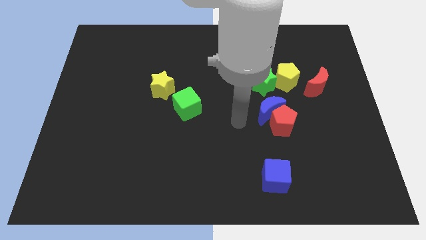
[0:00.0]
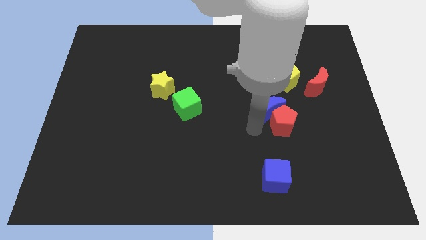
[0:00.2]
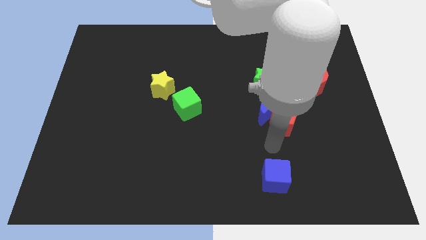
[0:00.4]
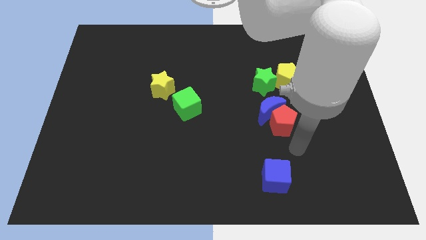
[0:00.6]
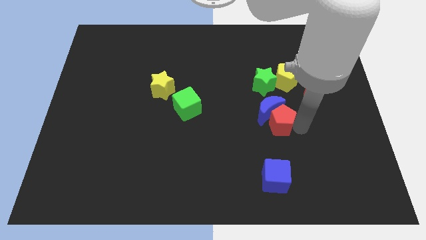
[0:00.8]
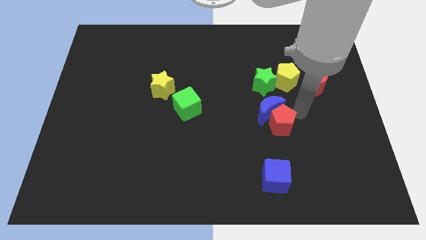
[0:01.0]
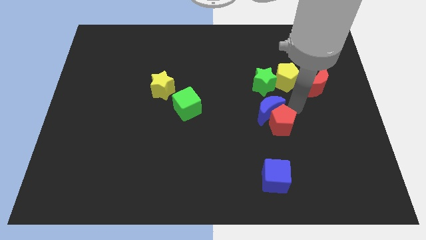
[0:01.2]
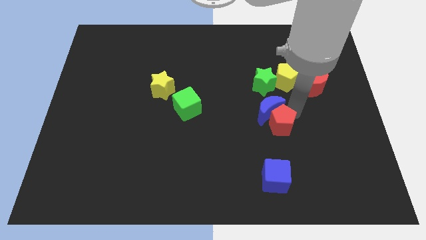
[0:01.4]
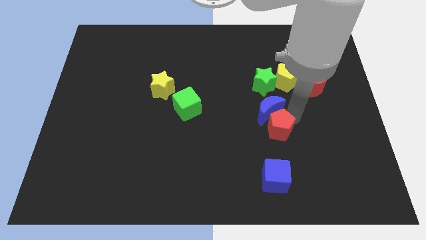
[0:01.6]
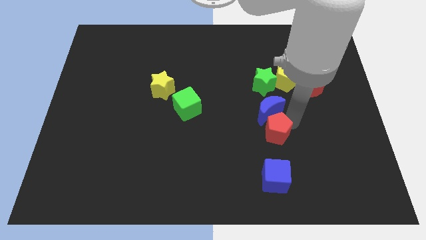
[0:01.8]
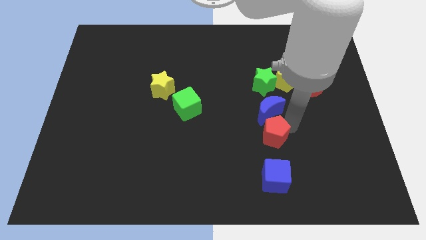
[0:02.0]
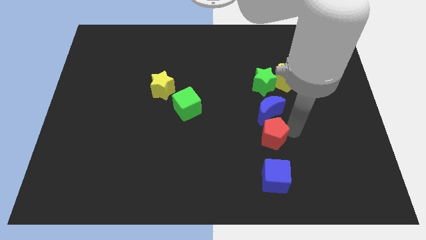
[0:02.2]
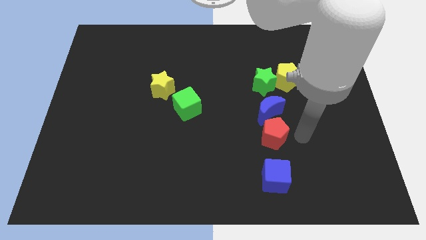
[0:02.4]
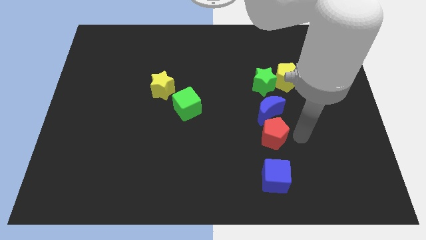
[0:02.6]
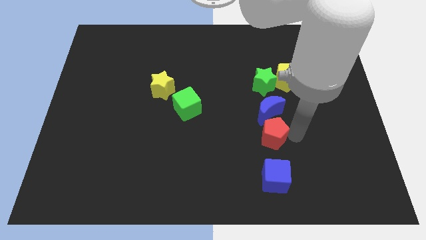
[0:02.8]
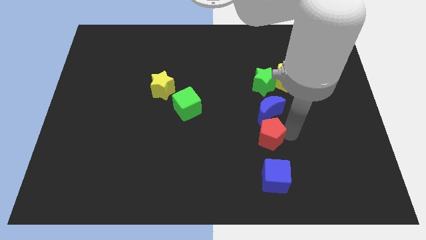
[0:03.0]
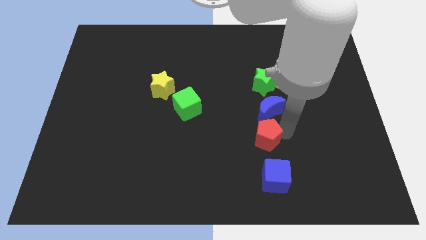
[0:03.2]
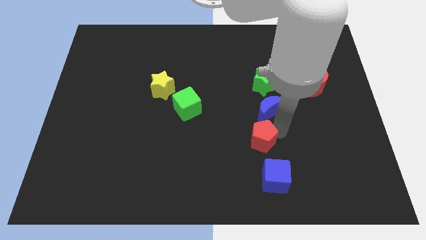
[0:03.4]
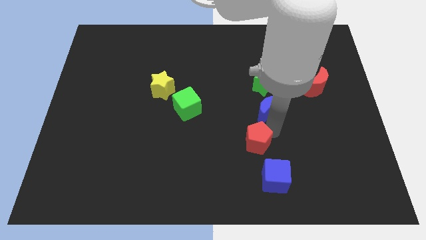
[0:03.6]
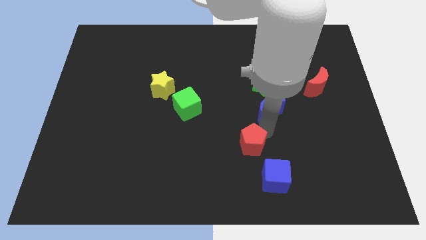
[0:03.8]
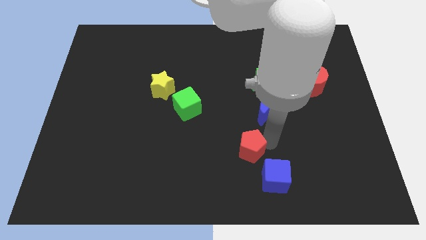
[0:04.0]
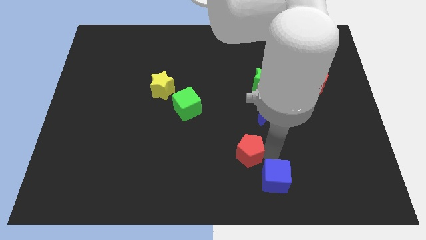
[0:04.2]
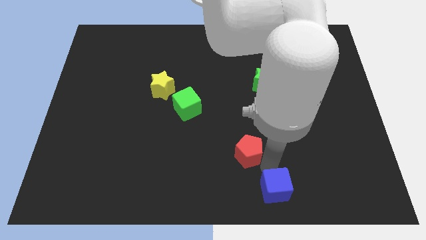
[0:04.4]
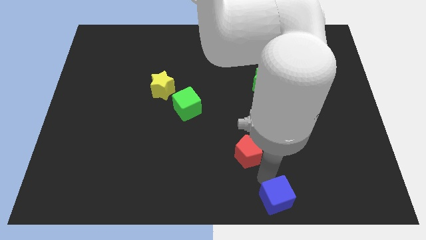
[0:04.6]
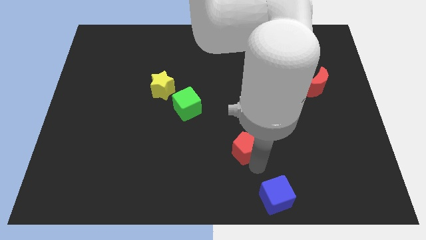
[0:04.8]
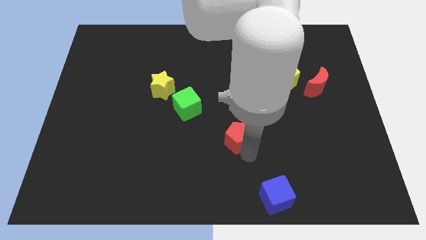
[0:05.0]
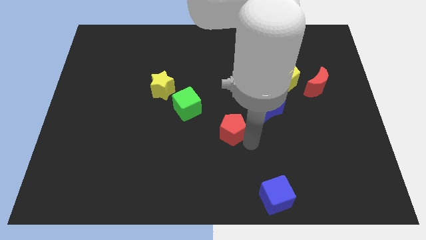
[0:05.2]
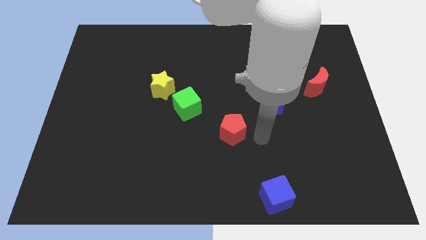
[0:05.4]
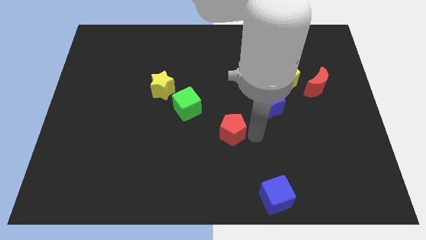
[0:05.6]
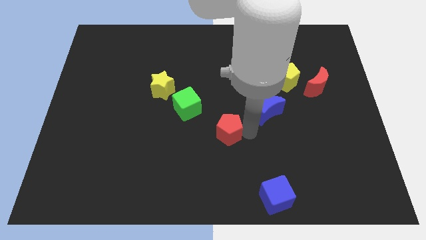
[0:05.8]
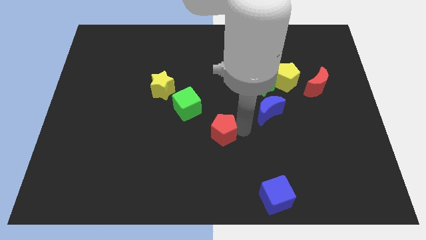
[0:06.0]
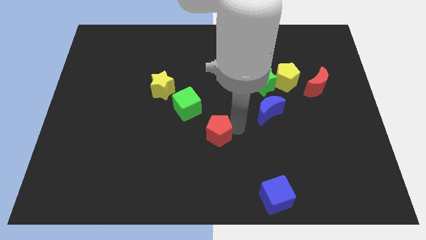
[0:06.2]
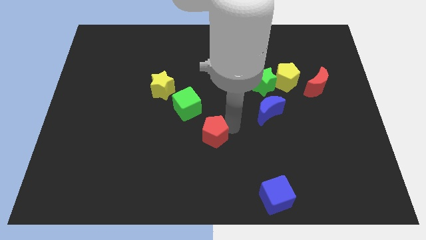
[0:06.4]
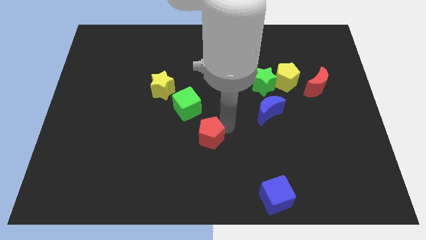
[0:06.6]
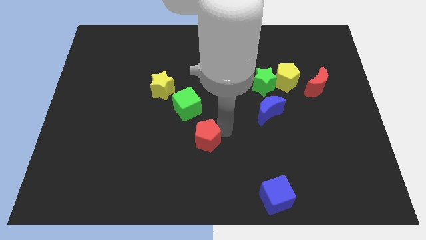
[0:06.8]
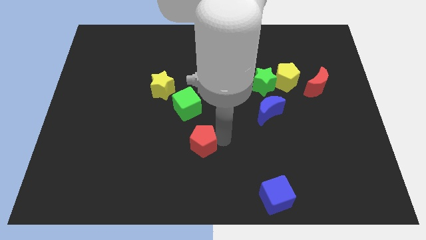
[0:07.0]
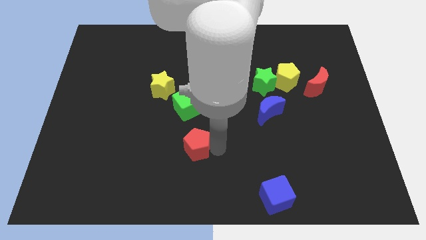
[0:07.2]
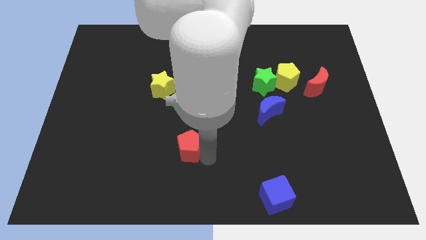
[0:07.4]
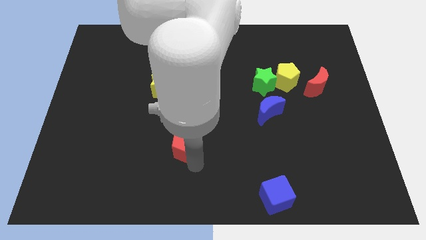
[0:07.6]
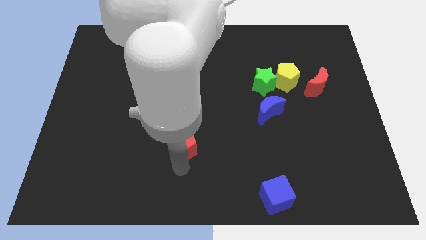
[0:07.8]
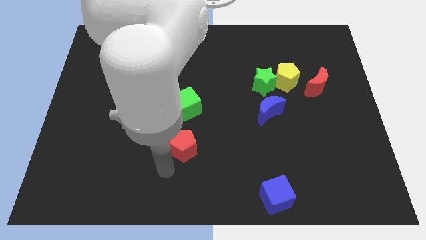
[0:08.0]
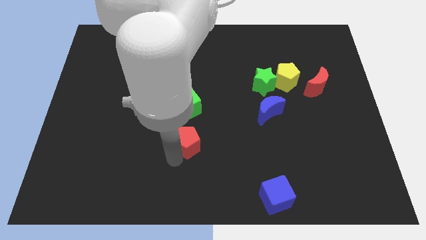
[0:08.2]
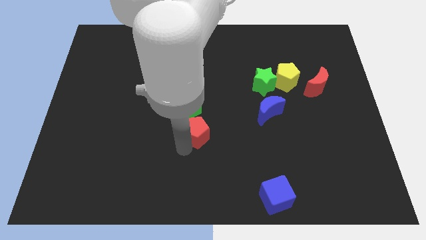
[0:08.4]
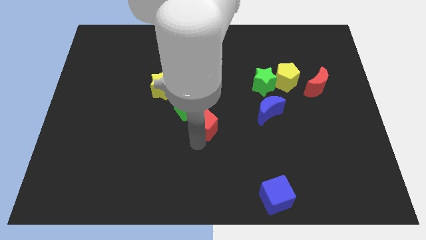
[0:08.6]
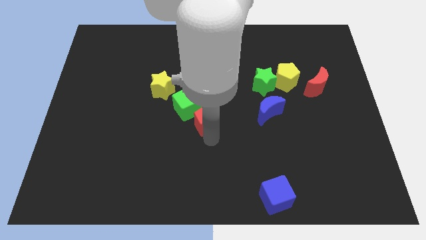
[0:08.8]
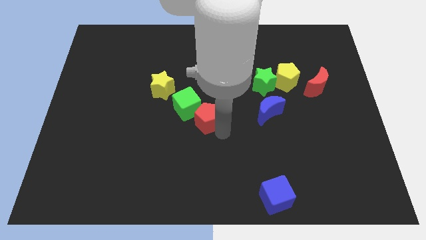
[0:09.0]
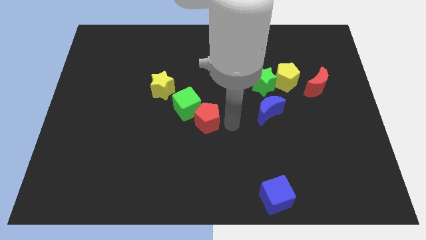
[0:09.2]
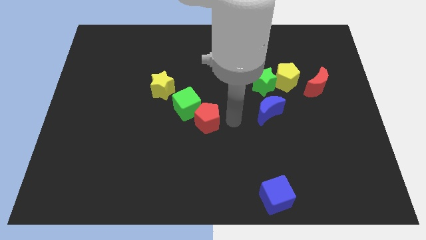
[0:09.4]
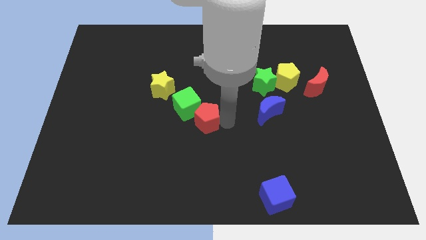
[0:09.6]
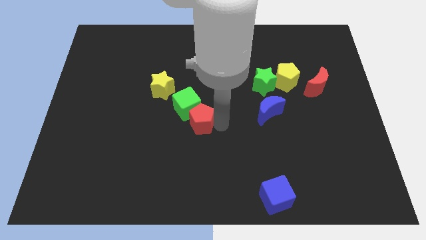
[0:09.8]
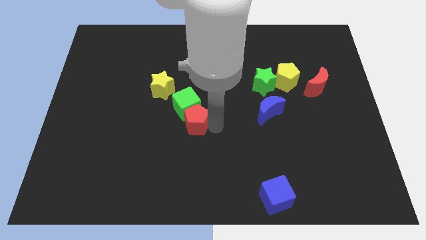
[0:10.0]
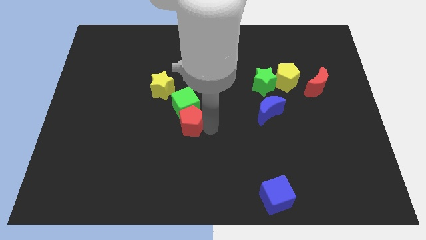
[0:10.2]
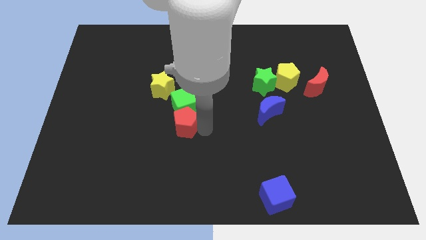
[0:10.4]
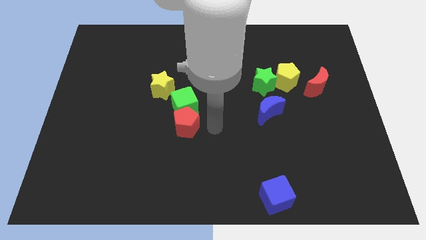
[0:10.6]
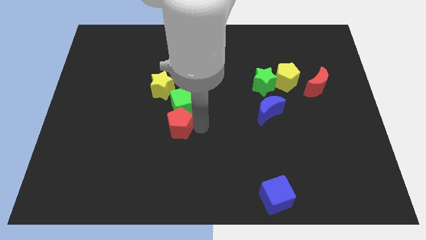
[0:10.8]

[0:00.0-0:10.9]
put the red pentagon to the bottom side of the yellow star

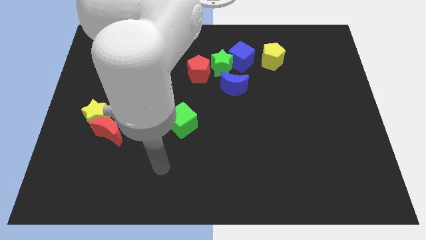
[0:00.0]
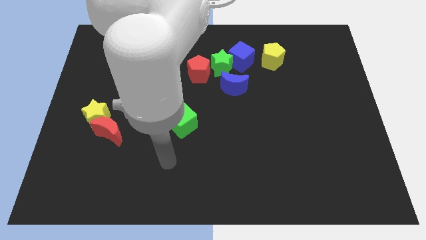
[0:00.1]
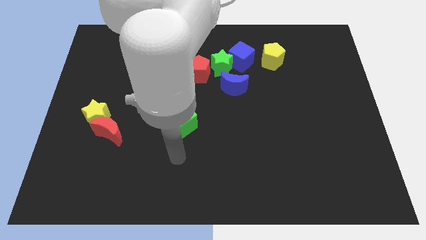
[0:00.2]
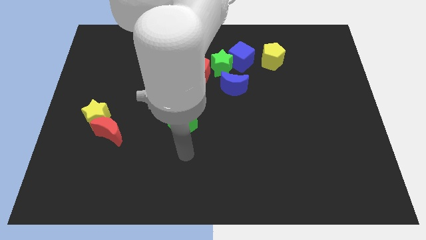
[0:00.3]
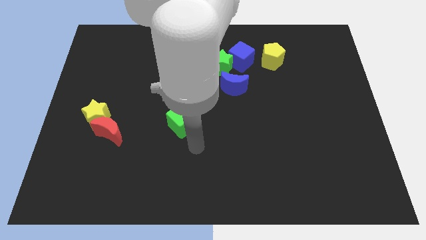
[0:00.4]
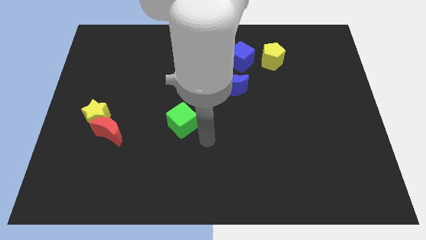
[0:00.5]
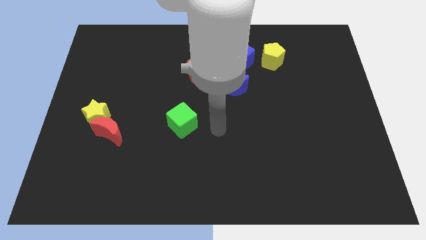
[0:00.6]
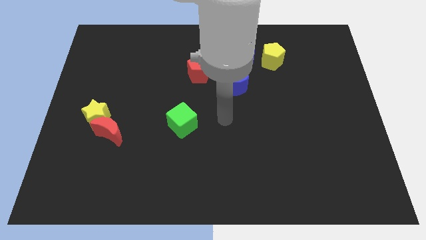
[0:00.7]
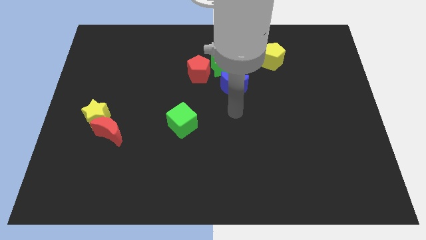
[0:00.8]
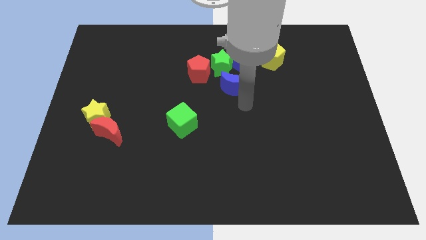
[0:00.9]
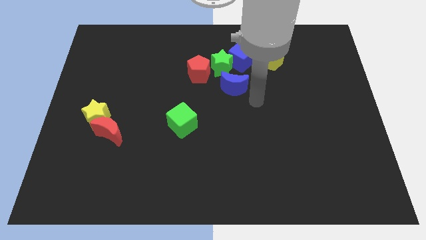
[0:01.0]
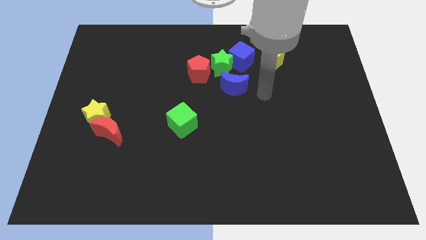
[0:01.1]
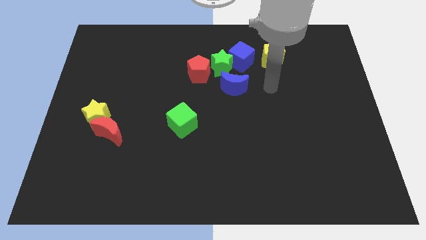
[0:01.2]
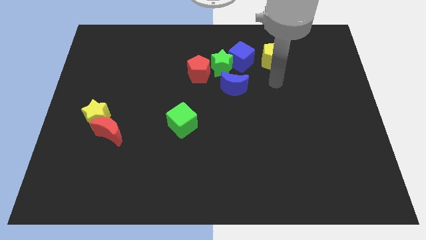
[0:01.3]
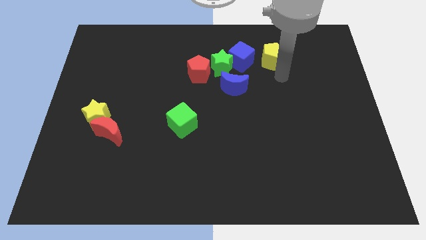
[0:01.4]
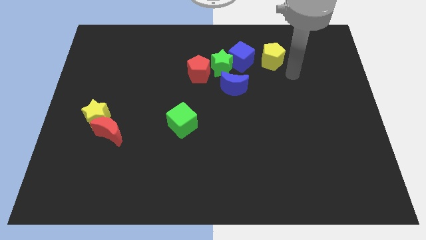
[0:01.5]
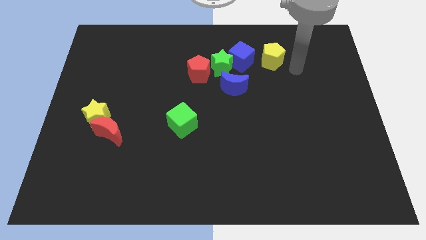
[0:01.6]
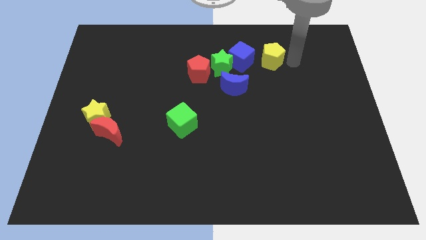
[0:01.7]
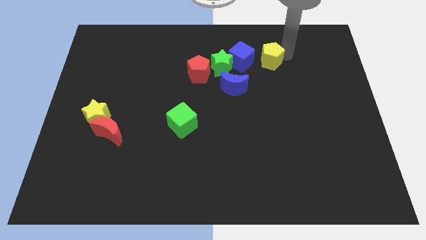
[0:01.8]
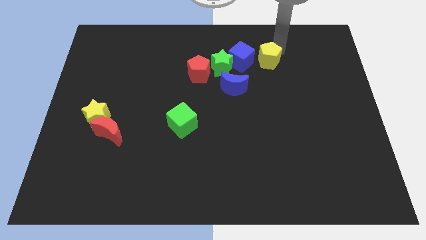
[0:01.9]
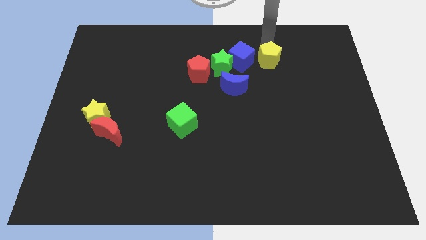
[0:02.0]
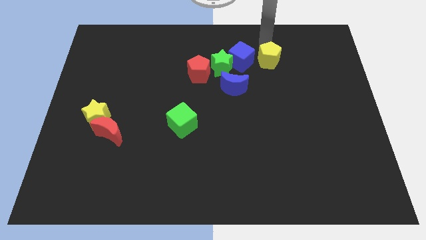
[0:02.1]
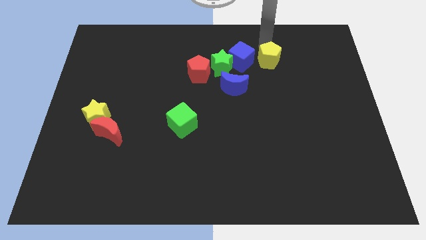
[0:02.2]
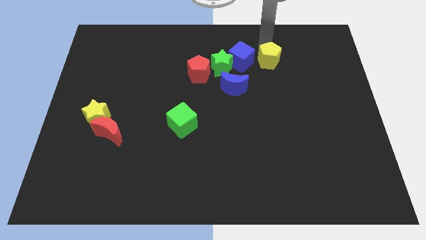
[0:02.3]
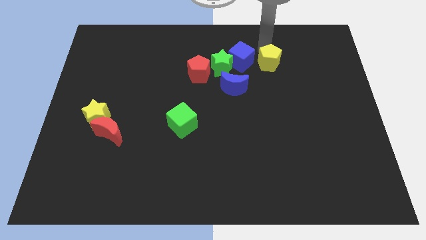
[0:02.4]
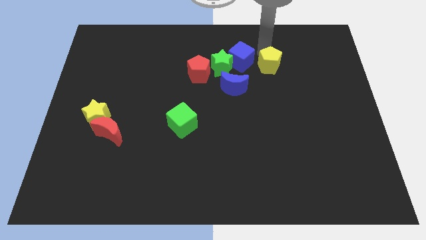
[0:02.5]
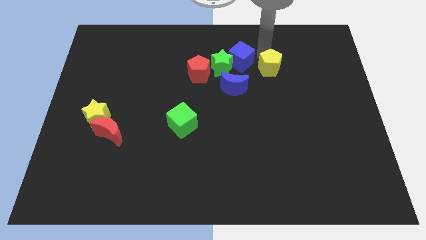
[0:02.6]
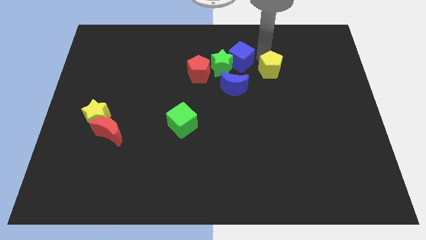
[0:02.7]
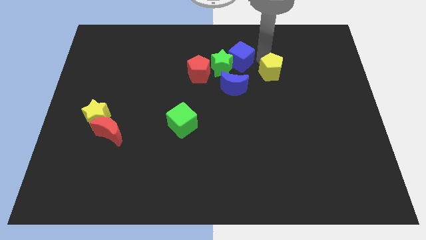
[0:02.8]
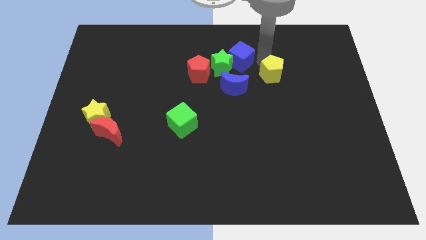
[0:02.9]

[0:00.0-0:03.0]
push the yellow pentagon to the right side of the blue moon
